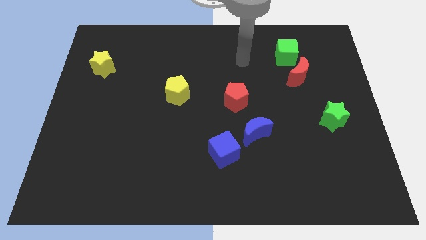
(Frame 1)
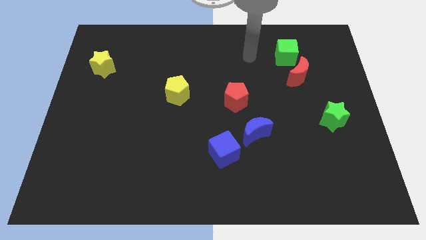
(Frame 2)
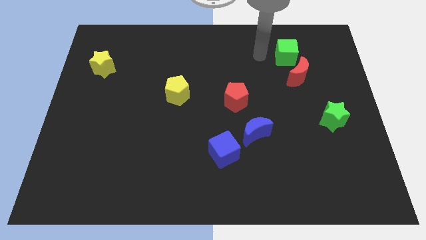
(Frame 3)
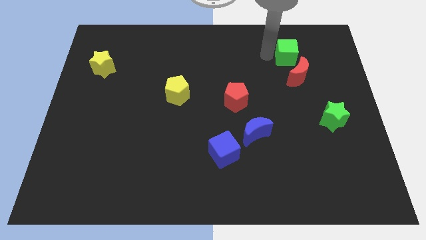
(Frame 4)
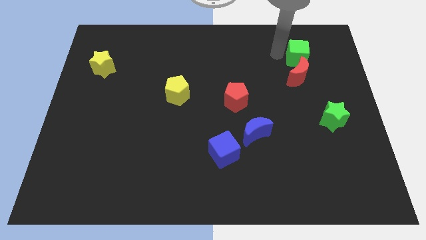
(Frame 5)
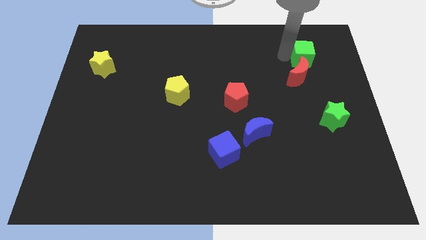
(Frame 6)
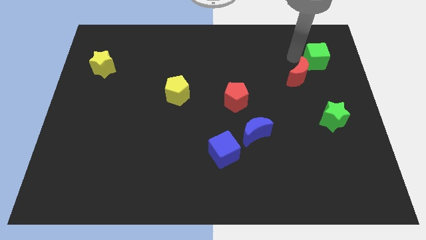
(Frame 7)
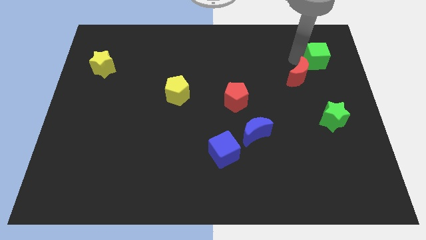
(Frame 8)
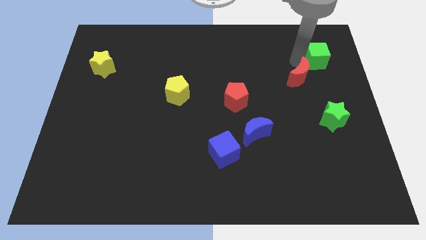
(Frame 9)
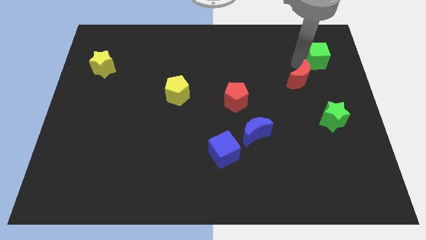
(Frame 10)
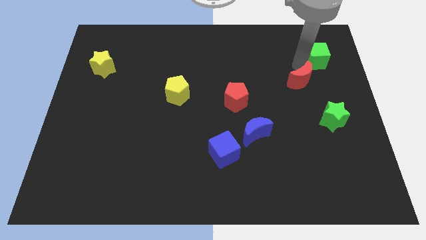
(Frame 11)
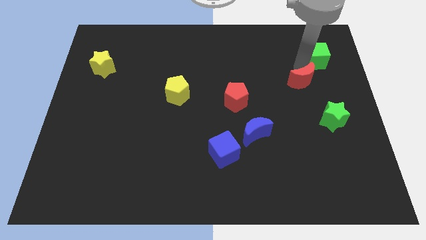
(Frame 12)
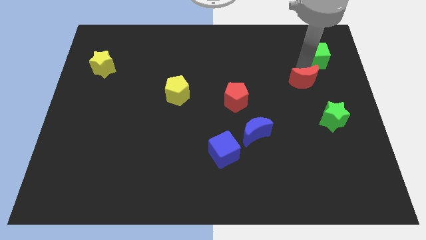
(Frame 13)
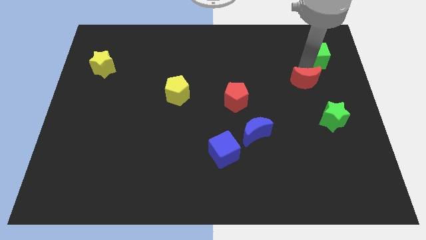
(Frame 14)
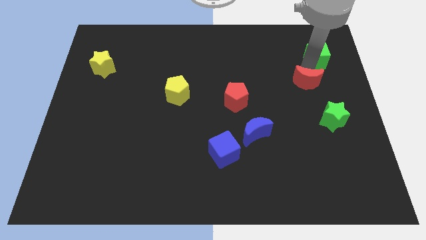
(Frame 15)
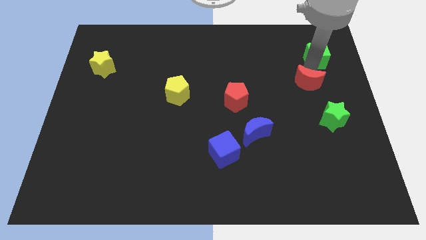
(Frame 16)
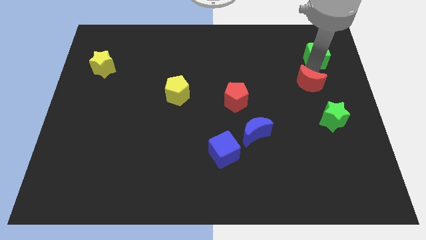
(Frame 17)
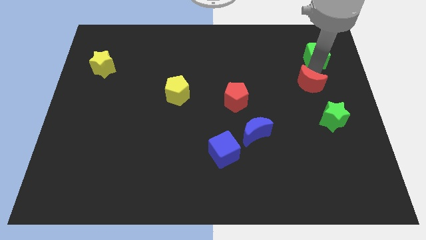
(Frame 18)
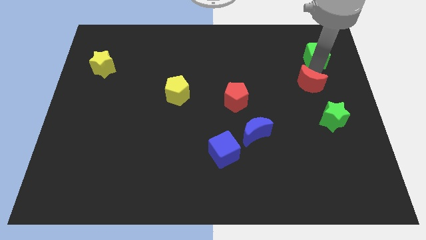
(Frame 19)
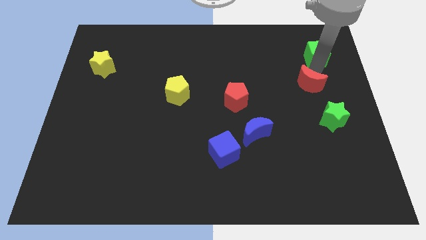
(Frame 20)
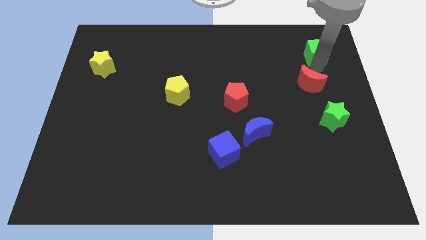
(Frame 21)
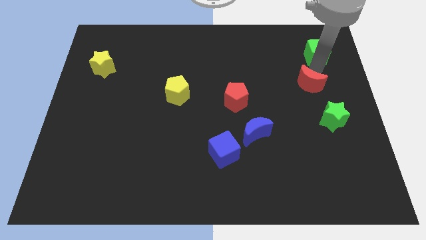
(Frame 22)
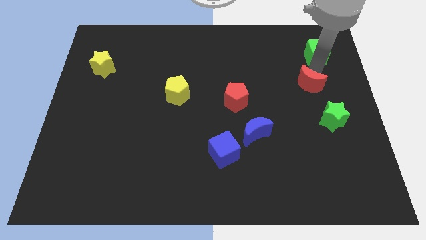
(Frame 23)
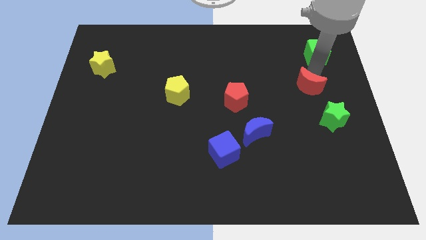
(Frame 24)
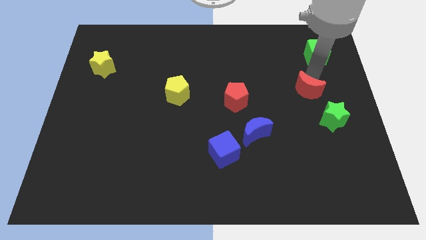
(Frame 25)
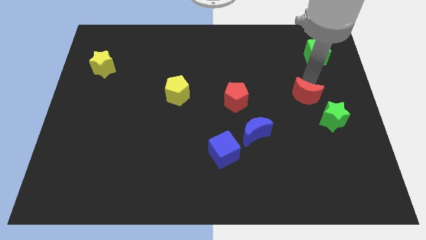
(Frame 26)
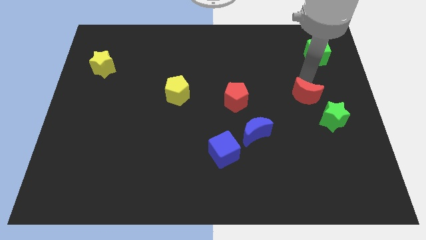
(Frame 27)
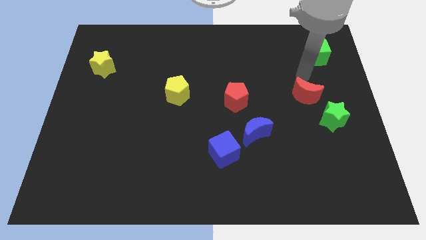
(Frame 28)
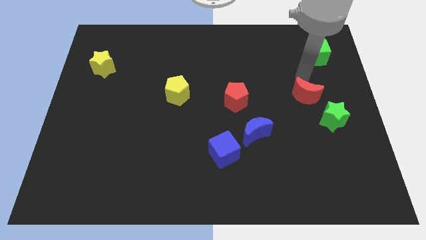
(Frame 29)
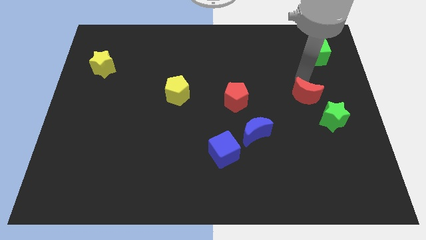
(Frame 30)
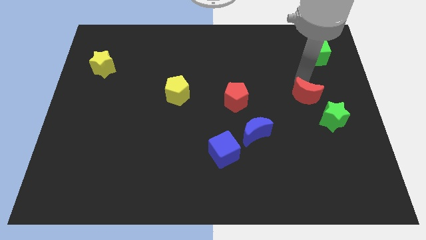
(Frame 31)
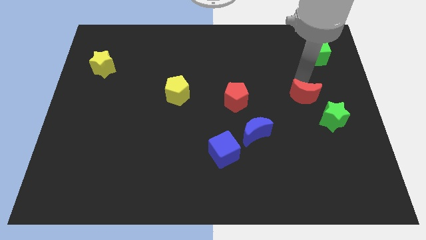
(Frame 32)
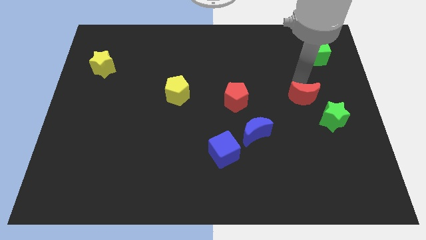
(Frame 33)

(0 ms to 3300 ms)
slide the red moon somewhat down

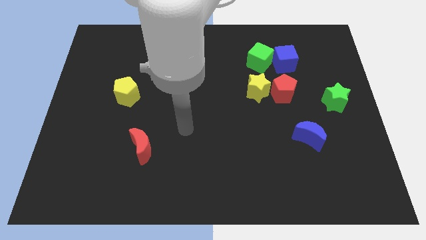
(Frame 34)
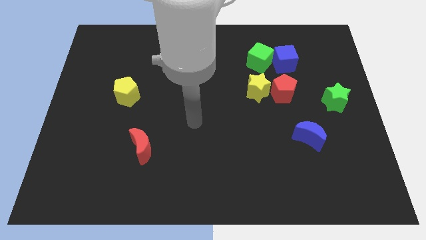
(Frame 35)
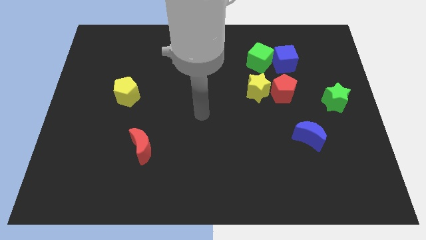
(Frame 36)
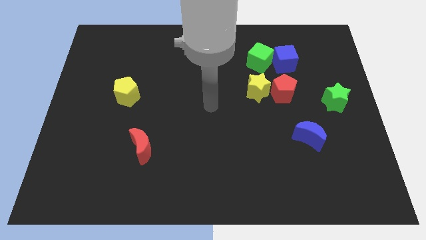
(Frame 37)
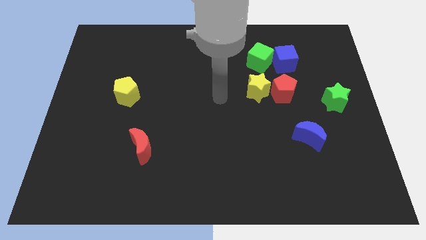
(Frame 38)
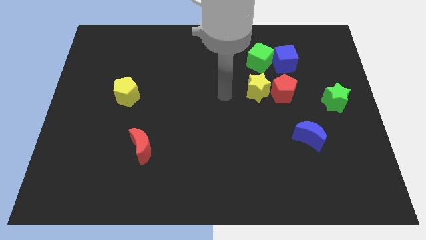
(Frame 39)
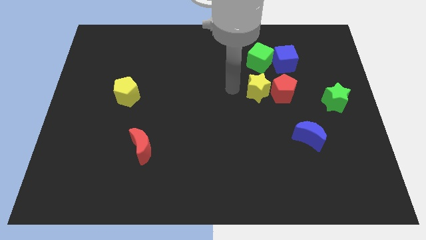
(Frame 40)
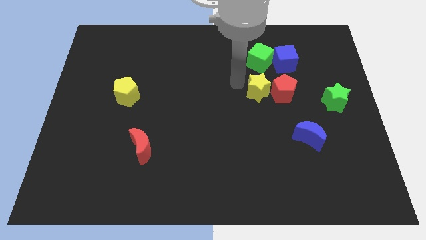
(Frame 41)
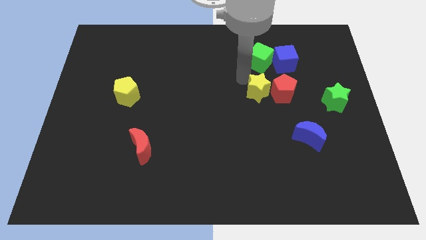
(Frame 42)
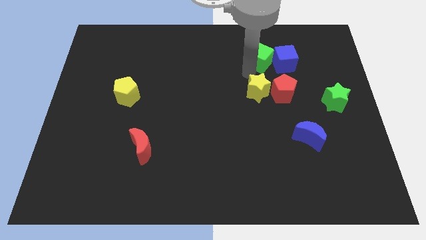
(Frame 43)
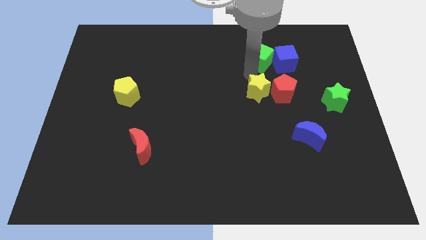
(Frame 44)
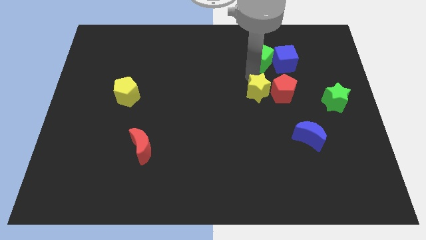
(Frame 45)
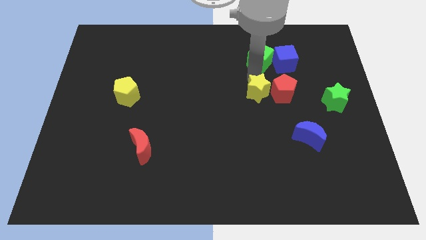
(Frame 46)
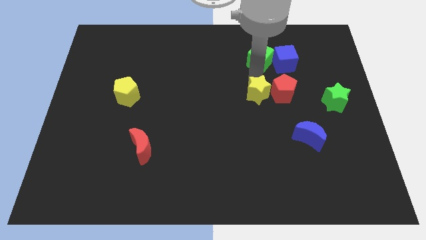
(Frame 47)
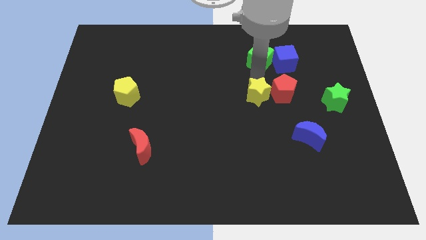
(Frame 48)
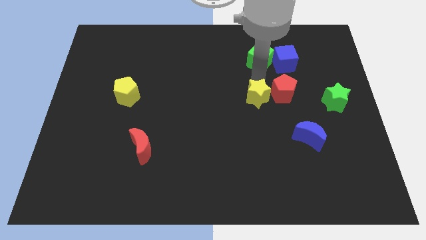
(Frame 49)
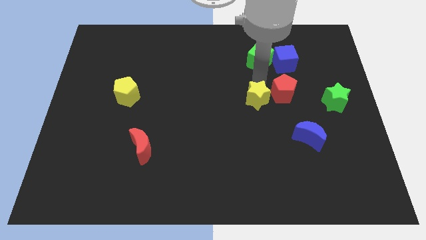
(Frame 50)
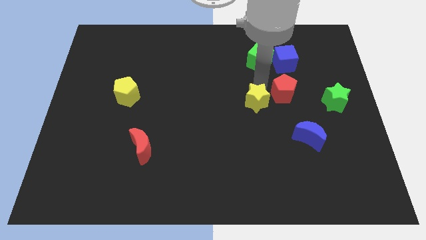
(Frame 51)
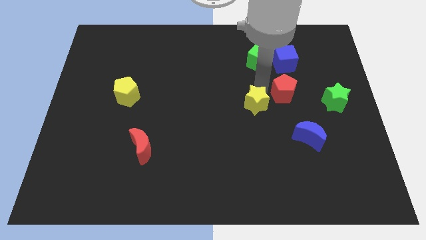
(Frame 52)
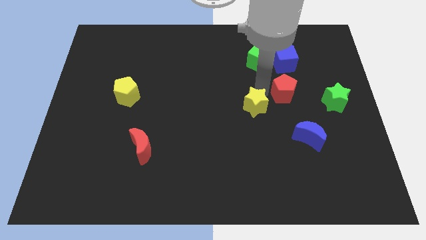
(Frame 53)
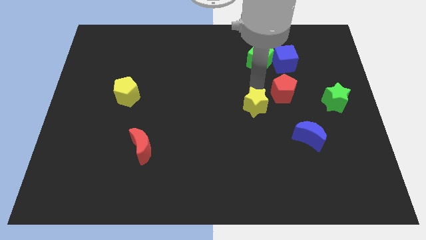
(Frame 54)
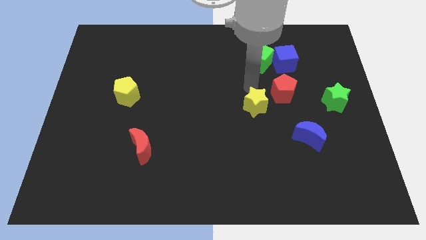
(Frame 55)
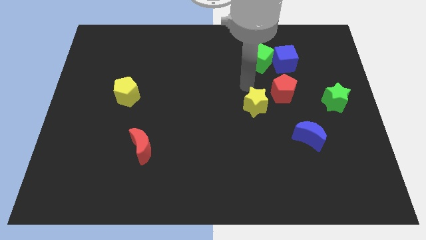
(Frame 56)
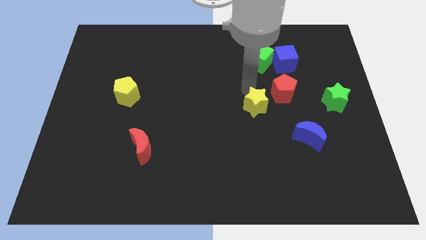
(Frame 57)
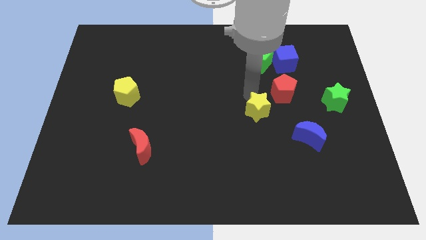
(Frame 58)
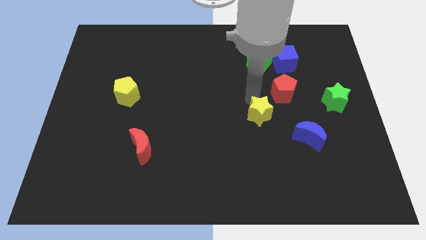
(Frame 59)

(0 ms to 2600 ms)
push the yellow star a little down

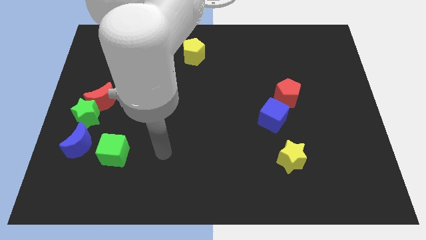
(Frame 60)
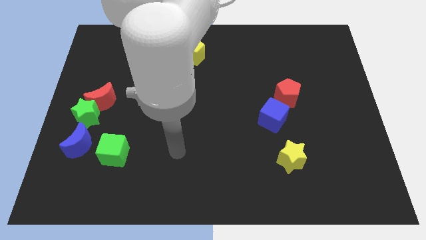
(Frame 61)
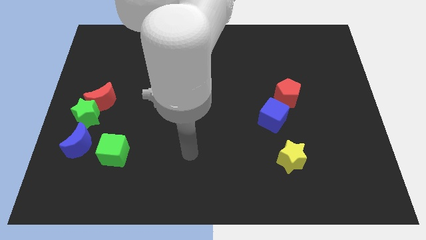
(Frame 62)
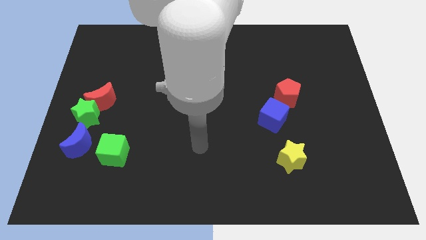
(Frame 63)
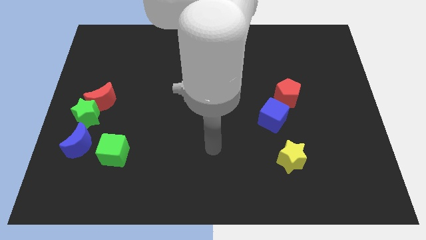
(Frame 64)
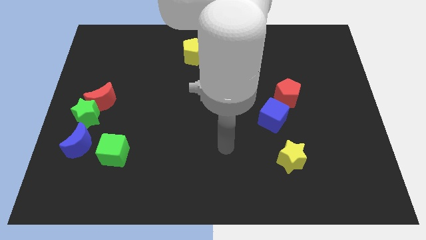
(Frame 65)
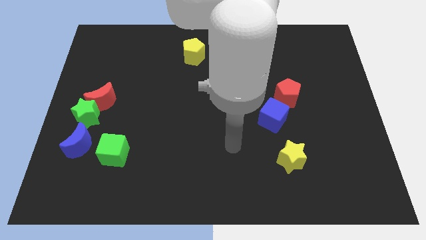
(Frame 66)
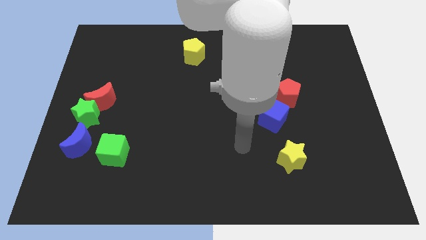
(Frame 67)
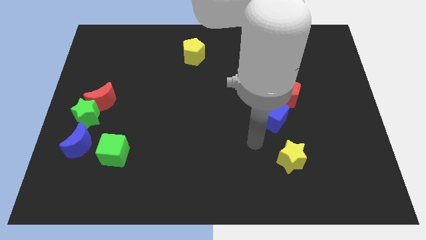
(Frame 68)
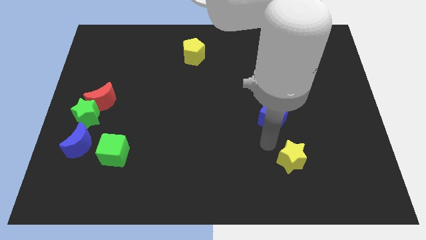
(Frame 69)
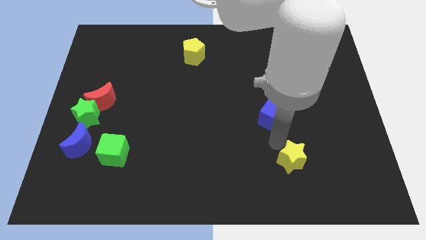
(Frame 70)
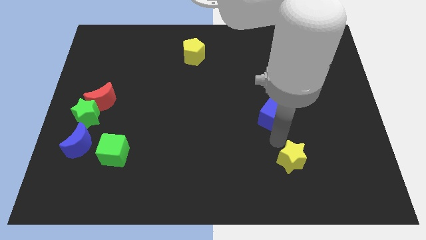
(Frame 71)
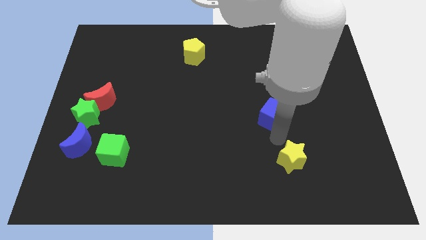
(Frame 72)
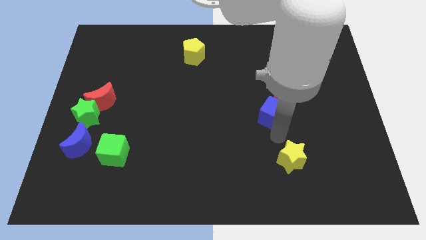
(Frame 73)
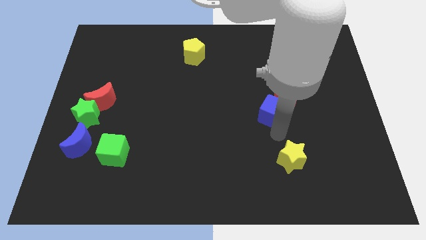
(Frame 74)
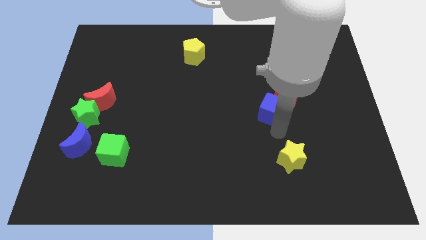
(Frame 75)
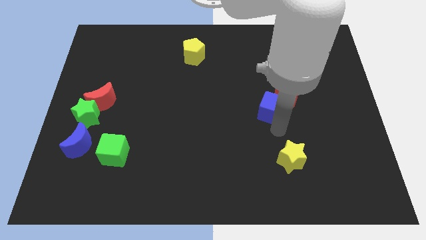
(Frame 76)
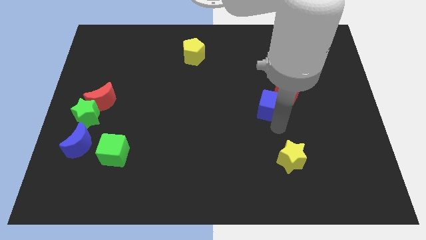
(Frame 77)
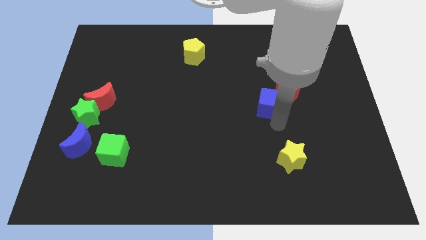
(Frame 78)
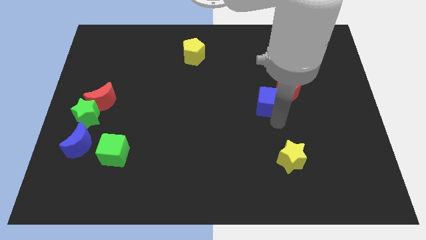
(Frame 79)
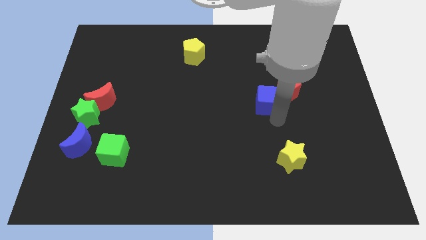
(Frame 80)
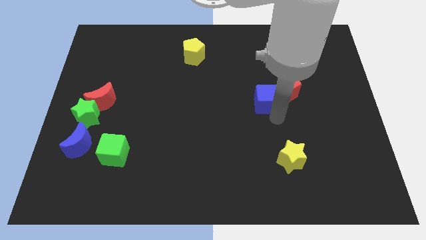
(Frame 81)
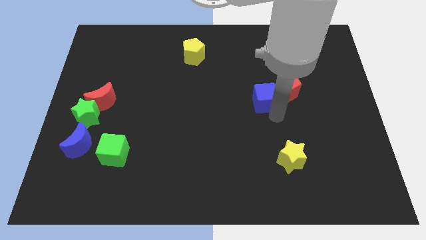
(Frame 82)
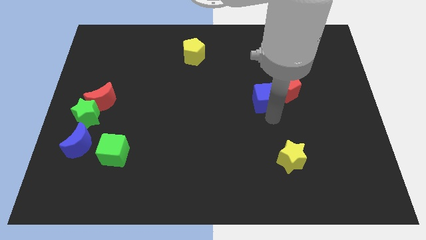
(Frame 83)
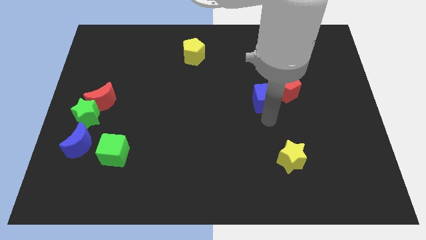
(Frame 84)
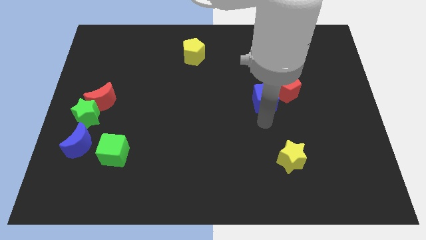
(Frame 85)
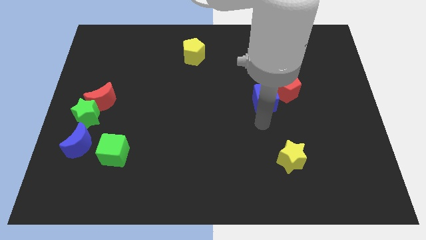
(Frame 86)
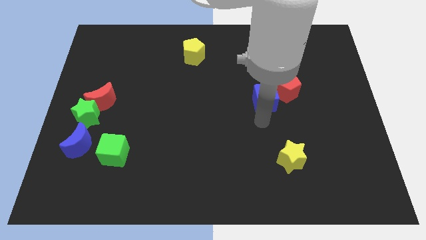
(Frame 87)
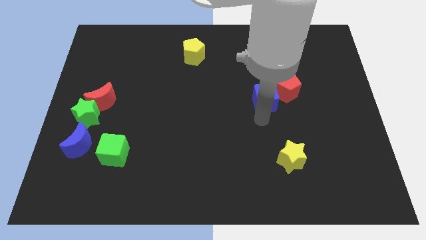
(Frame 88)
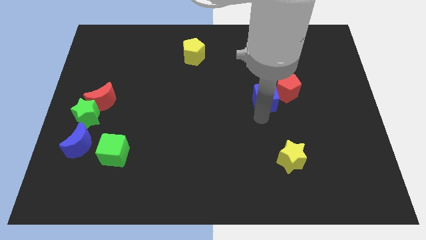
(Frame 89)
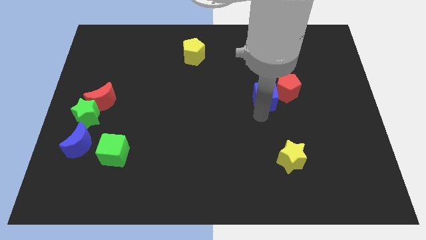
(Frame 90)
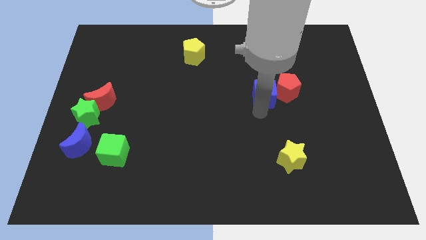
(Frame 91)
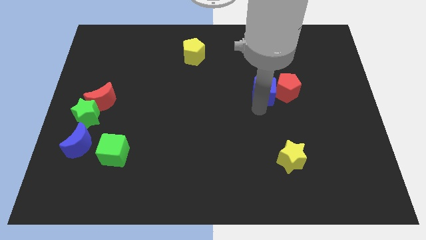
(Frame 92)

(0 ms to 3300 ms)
slide the blue cube a little up
